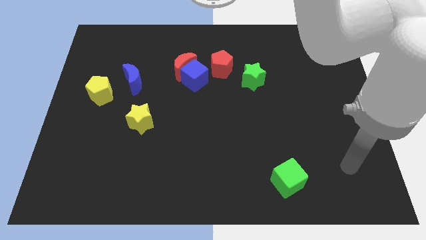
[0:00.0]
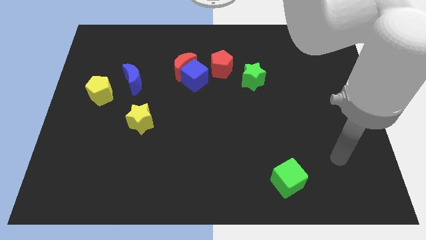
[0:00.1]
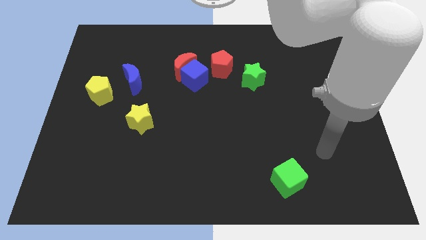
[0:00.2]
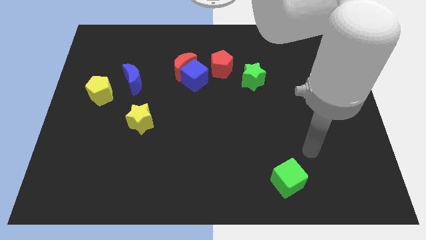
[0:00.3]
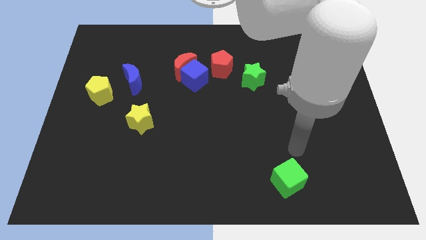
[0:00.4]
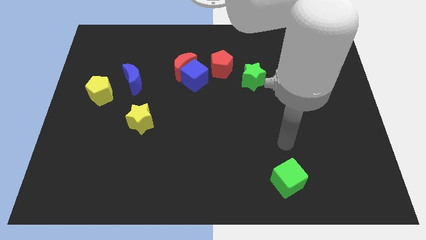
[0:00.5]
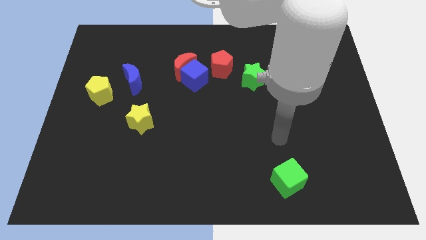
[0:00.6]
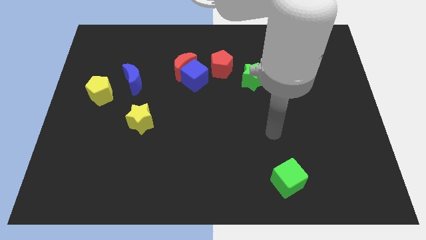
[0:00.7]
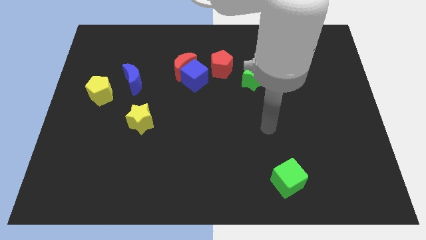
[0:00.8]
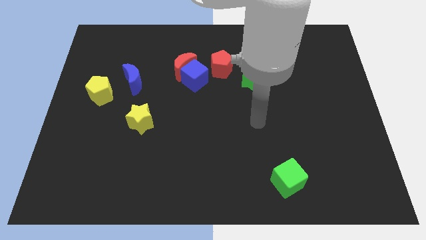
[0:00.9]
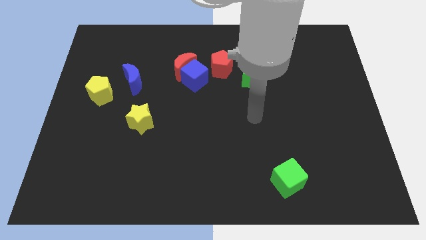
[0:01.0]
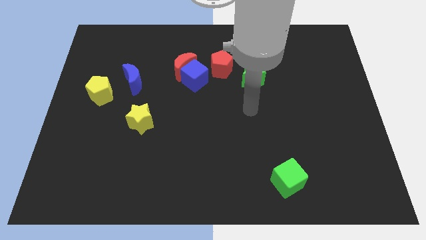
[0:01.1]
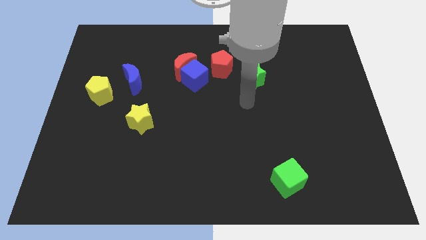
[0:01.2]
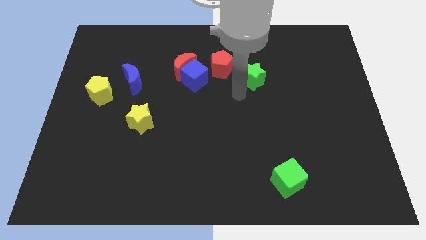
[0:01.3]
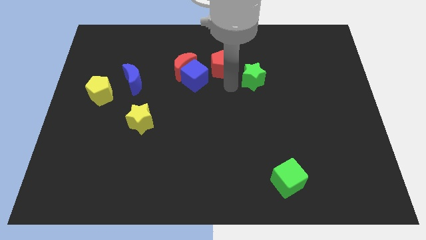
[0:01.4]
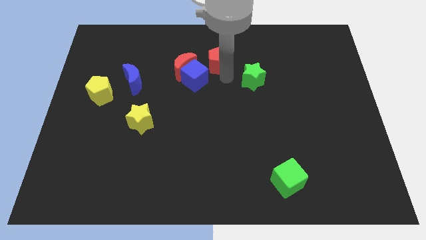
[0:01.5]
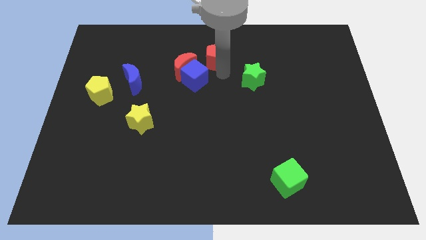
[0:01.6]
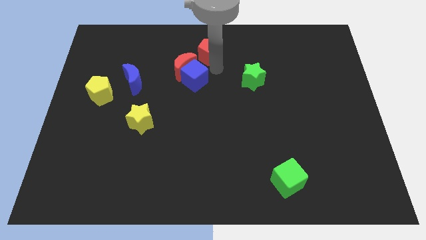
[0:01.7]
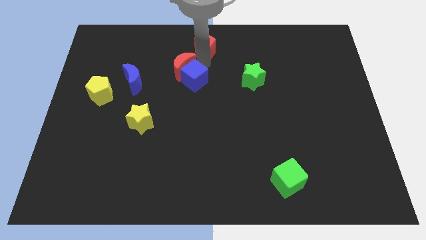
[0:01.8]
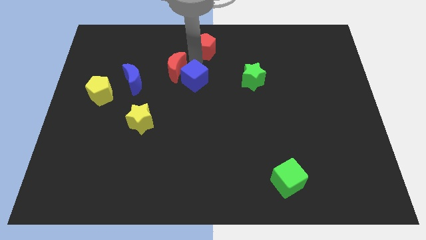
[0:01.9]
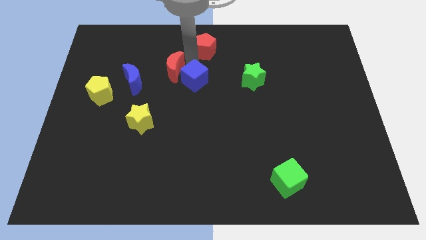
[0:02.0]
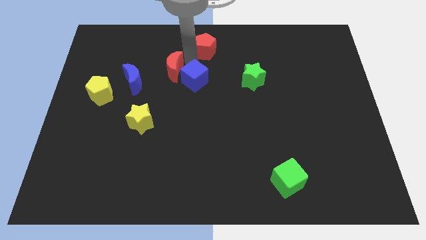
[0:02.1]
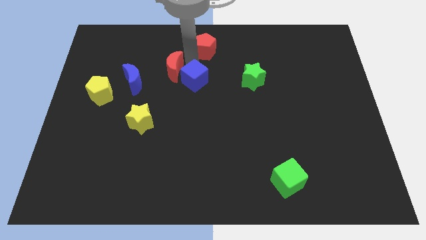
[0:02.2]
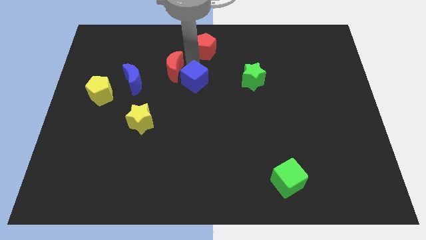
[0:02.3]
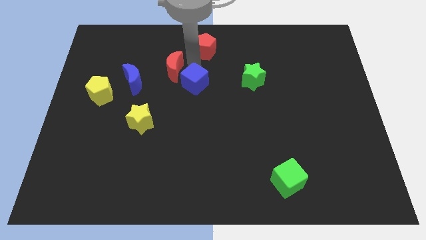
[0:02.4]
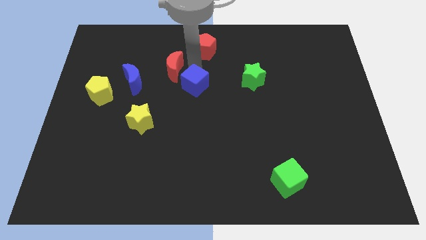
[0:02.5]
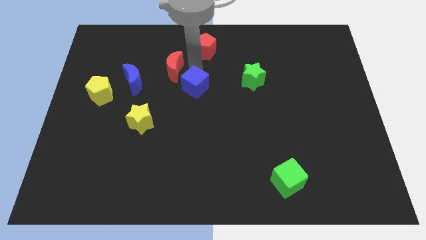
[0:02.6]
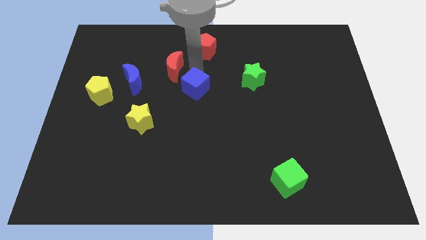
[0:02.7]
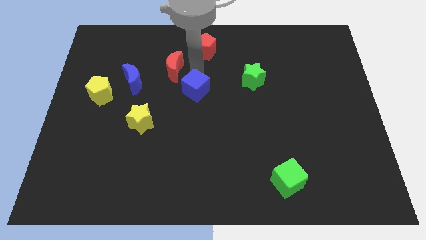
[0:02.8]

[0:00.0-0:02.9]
separate the blue cube from the red moon and red pentagon

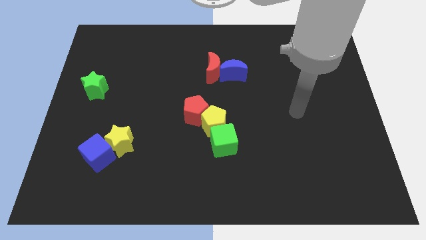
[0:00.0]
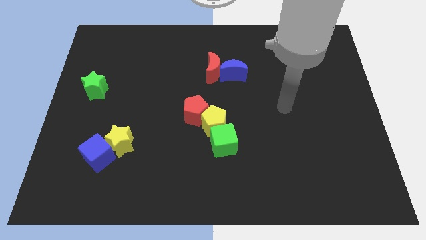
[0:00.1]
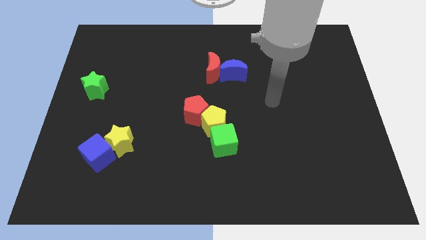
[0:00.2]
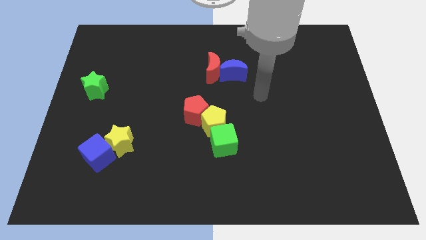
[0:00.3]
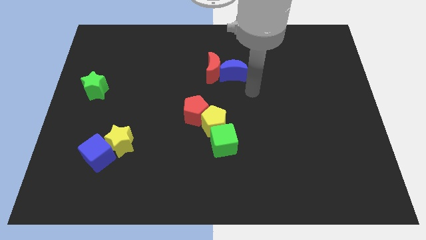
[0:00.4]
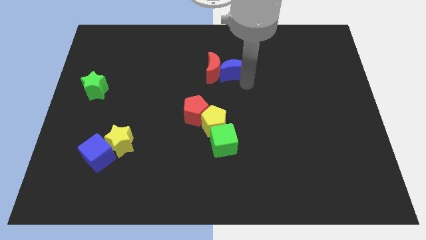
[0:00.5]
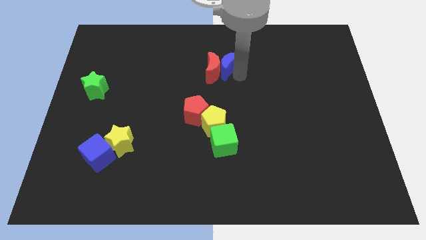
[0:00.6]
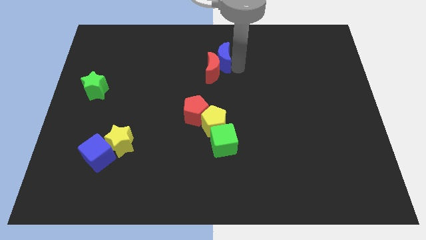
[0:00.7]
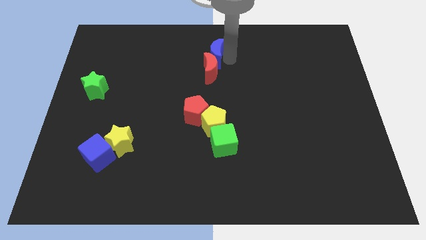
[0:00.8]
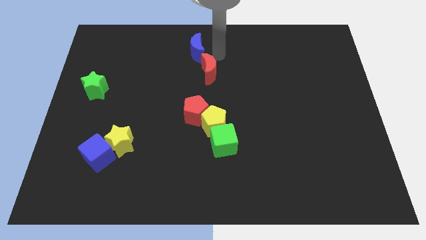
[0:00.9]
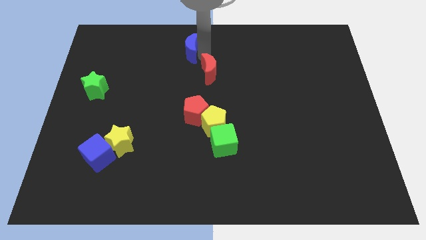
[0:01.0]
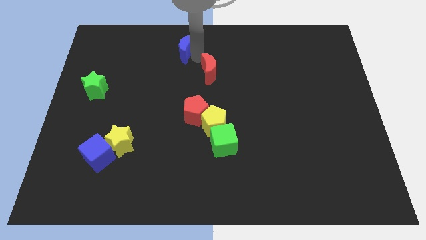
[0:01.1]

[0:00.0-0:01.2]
move the red moon away from the blue moon

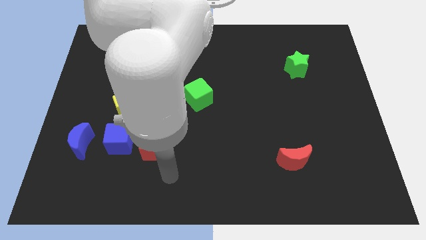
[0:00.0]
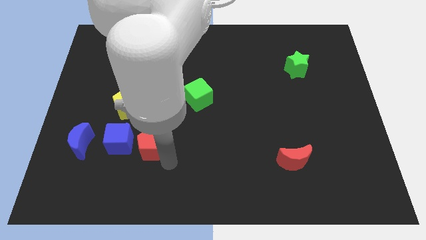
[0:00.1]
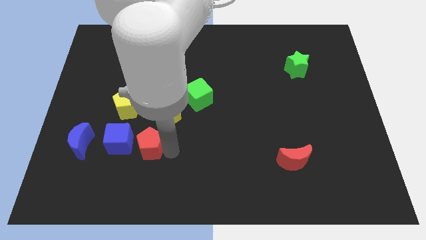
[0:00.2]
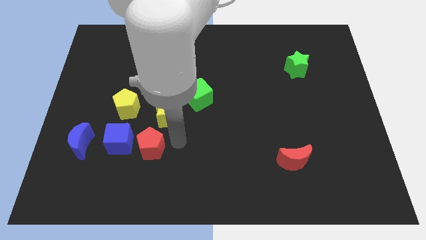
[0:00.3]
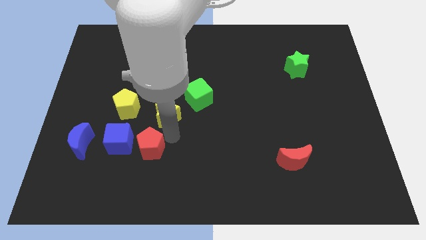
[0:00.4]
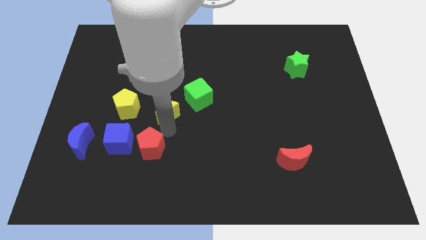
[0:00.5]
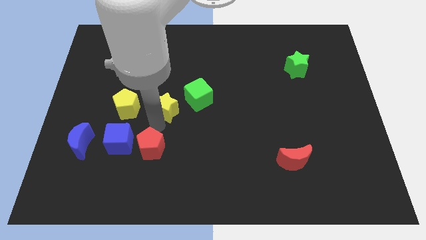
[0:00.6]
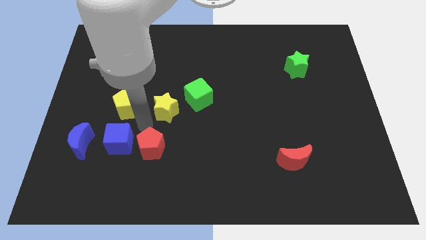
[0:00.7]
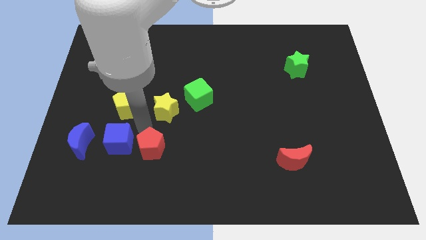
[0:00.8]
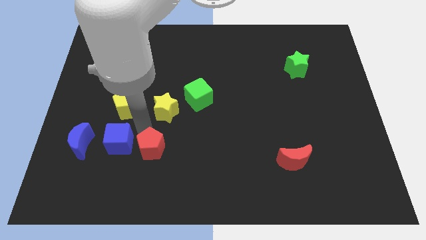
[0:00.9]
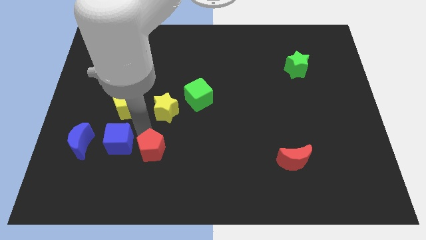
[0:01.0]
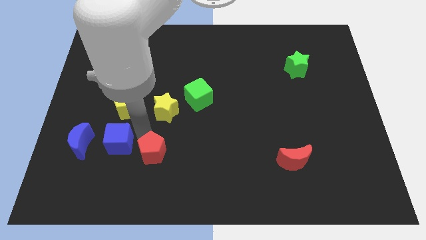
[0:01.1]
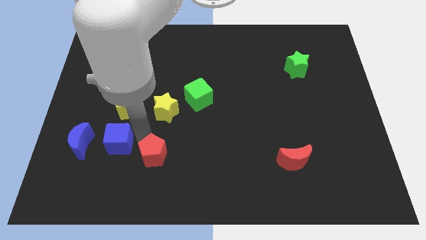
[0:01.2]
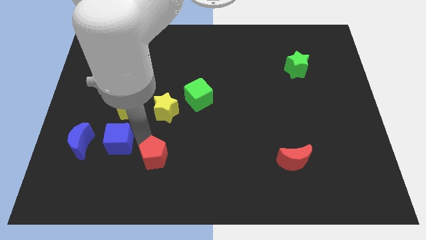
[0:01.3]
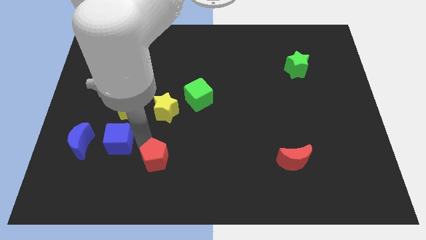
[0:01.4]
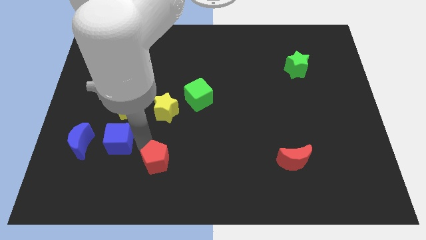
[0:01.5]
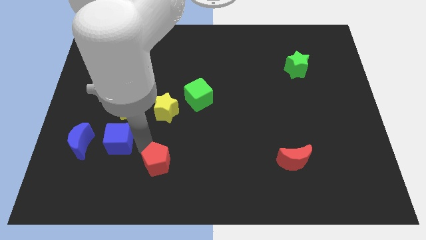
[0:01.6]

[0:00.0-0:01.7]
separate the red pentagon from the blue cube and yellow star

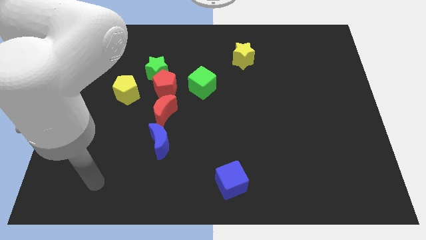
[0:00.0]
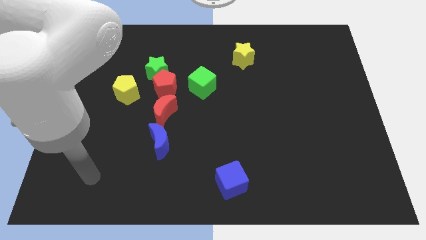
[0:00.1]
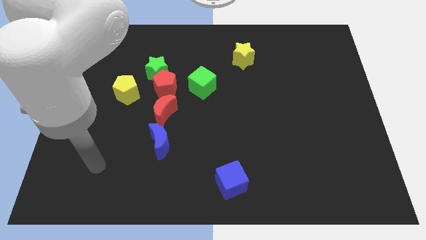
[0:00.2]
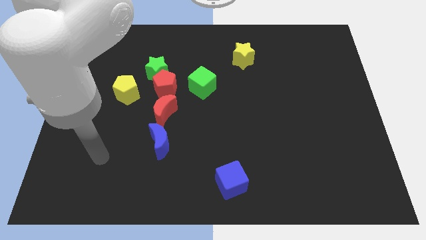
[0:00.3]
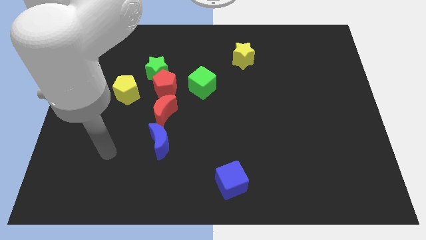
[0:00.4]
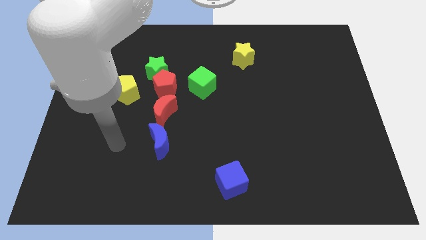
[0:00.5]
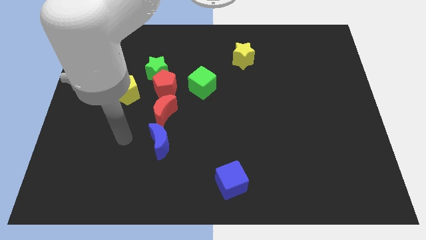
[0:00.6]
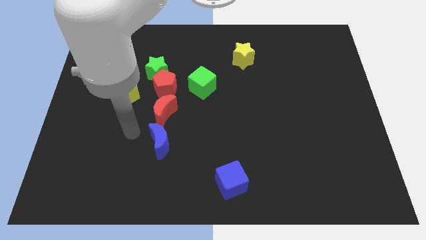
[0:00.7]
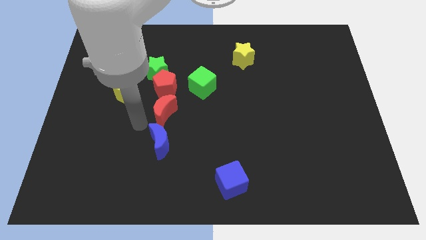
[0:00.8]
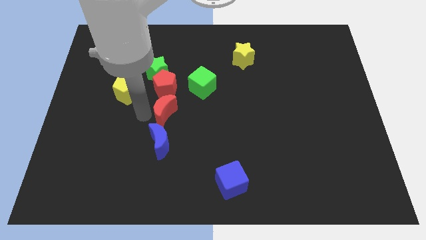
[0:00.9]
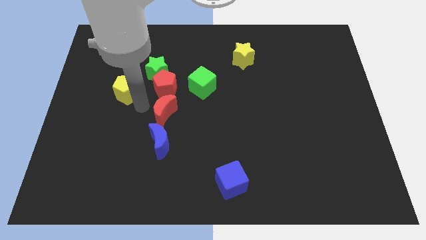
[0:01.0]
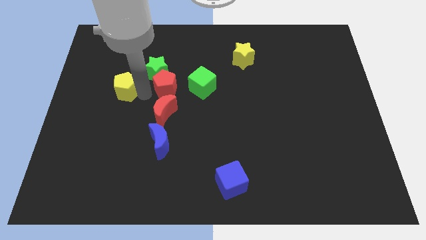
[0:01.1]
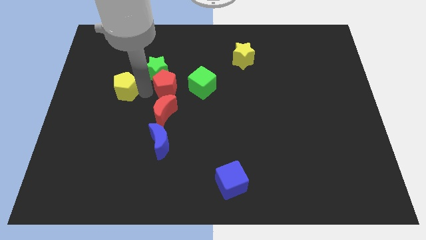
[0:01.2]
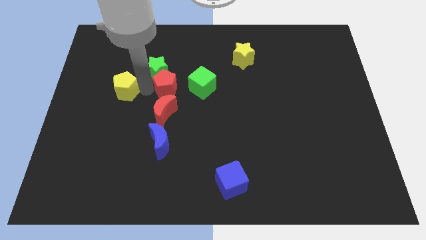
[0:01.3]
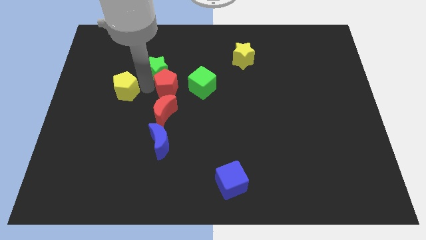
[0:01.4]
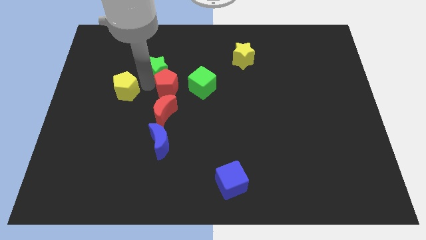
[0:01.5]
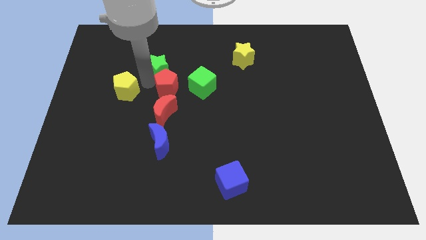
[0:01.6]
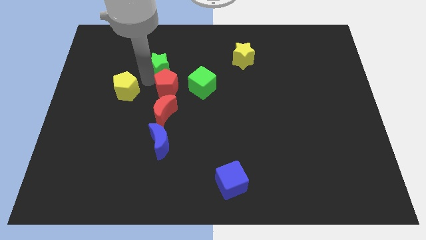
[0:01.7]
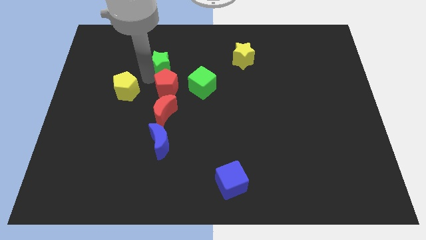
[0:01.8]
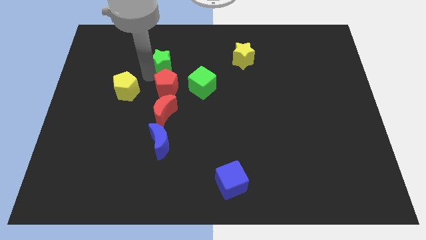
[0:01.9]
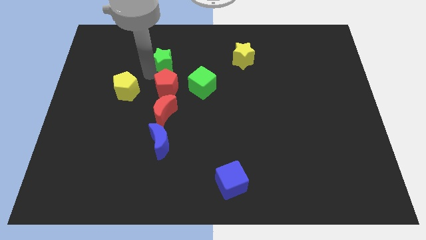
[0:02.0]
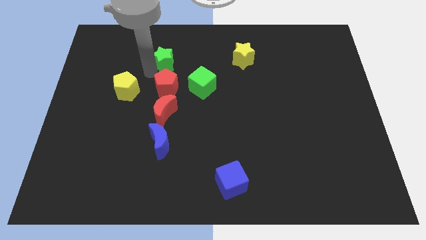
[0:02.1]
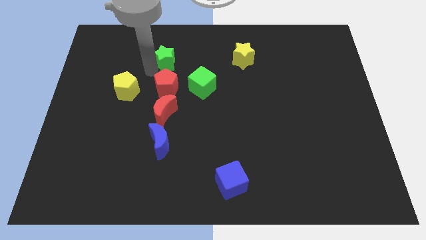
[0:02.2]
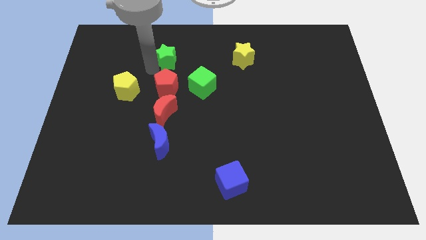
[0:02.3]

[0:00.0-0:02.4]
pull the green star apart from the red pentagon and yellow pentagon

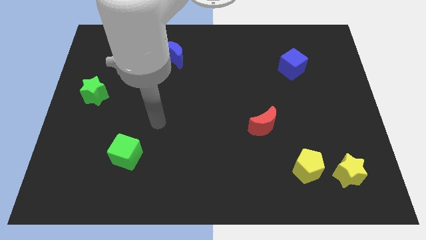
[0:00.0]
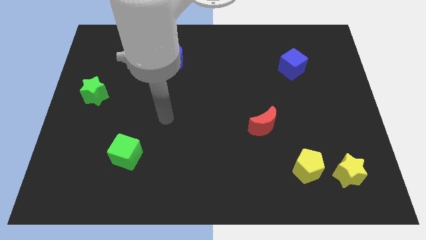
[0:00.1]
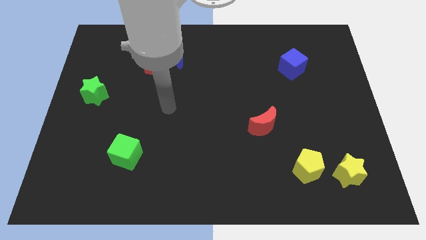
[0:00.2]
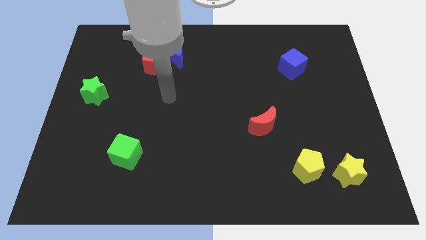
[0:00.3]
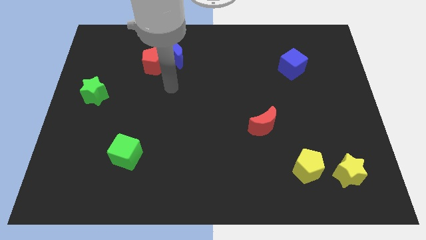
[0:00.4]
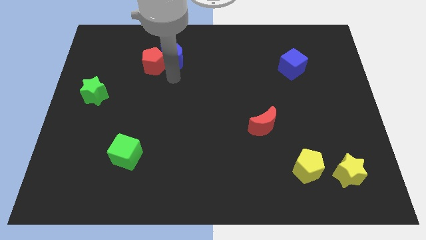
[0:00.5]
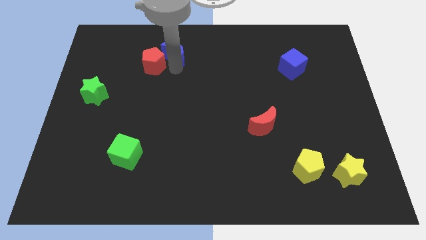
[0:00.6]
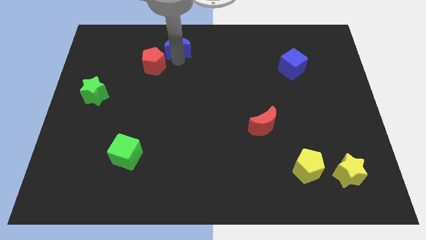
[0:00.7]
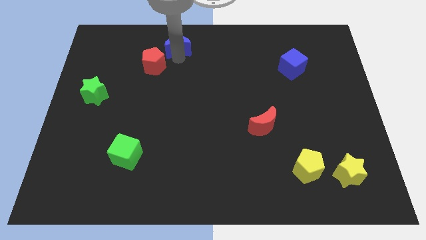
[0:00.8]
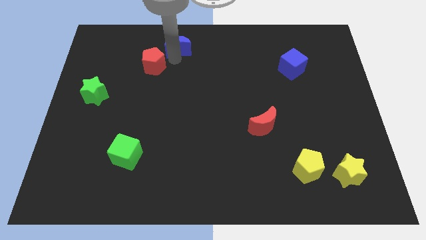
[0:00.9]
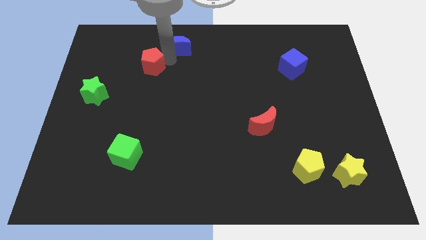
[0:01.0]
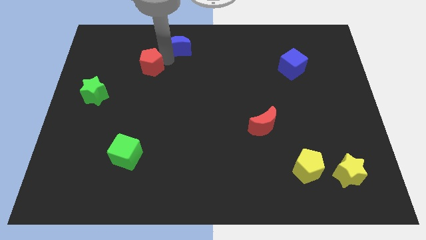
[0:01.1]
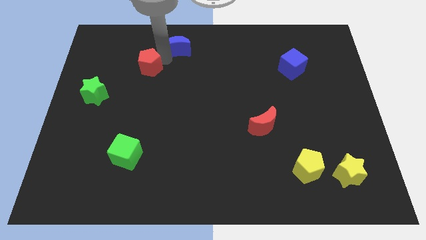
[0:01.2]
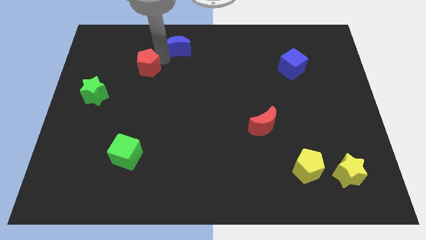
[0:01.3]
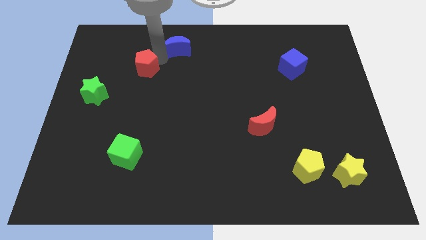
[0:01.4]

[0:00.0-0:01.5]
move the red pentagon away from the blue moon
